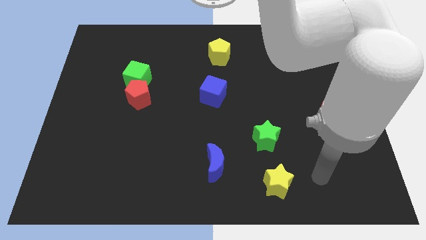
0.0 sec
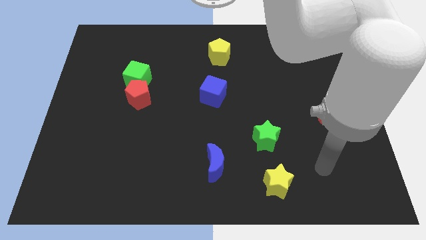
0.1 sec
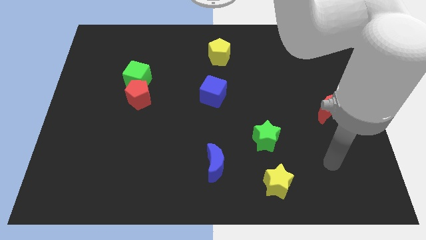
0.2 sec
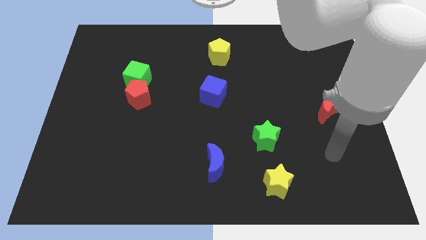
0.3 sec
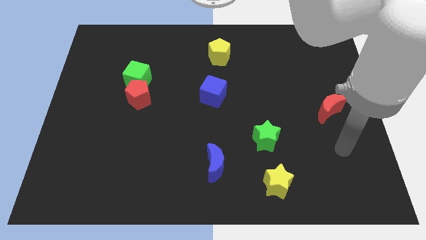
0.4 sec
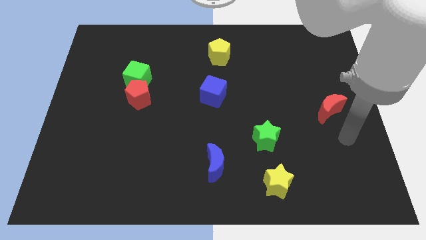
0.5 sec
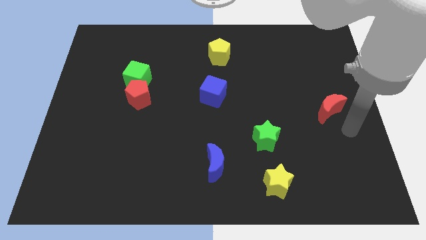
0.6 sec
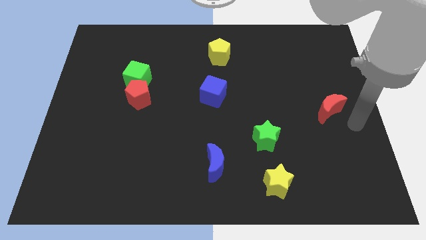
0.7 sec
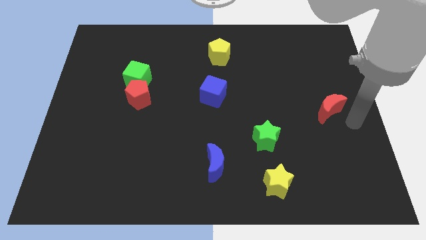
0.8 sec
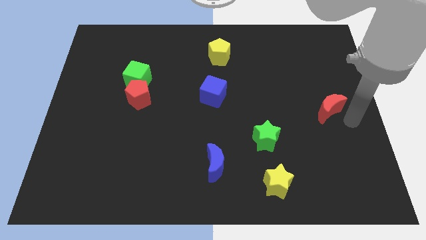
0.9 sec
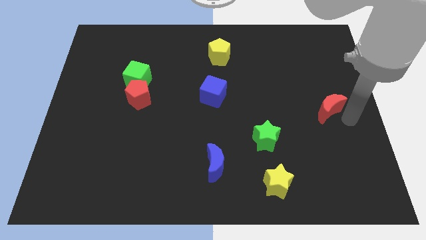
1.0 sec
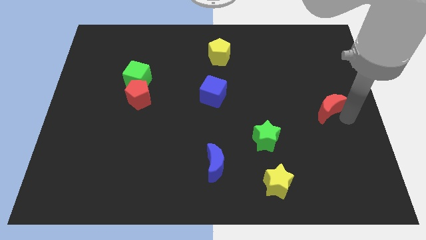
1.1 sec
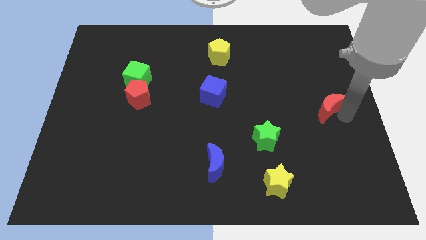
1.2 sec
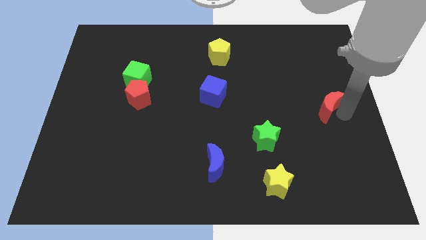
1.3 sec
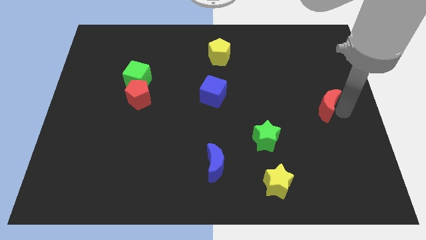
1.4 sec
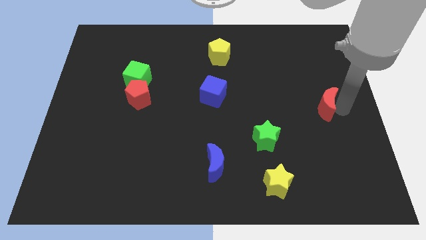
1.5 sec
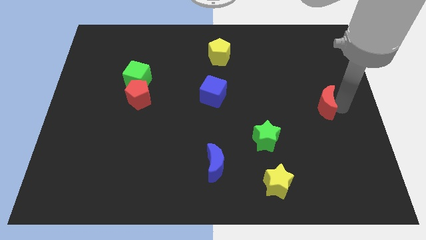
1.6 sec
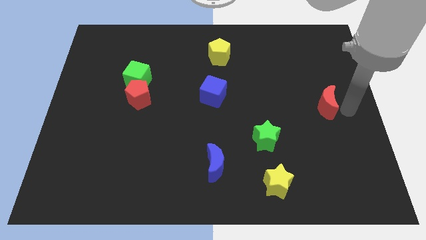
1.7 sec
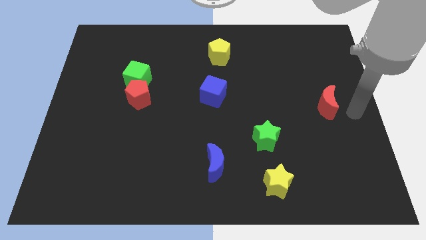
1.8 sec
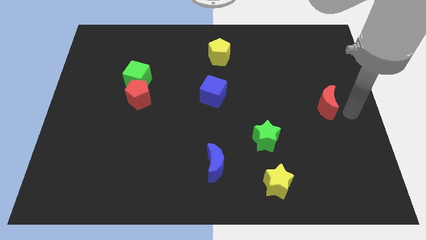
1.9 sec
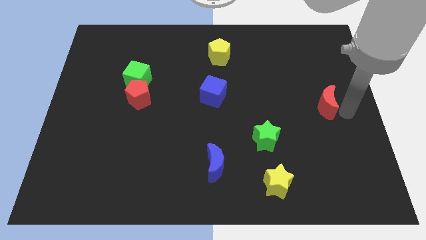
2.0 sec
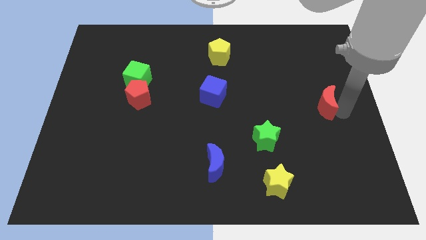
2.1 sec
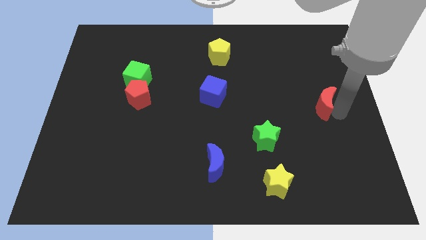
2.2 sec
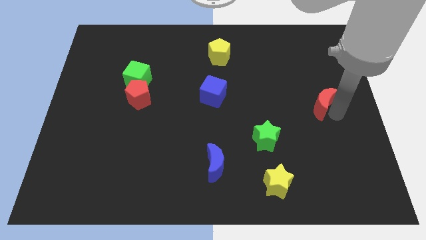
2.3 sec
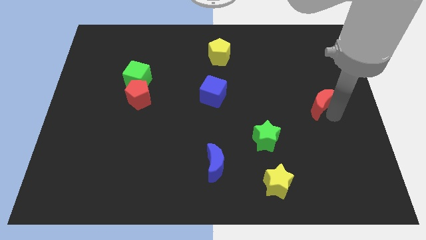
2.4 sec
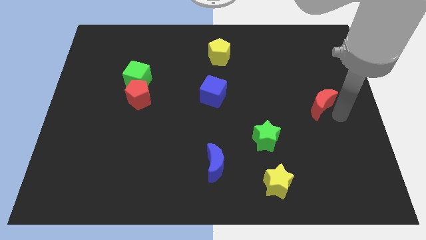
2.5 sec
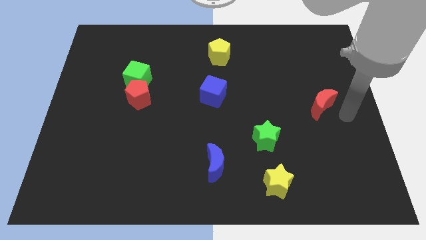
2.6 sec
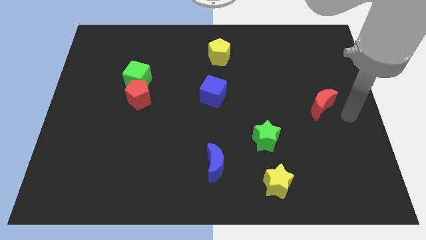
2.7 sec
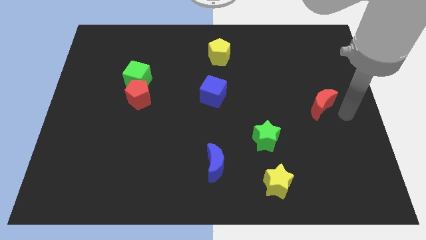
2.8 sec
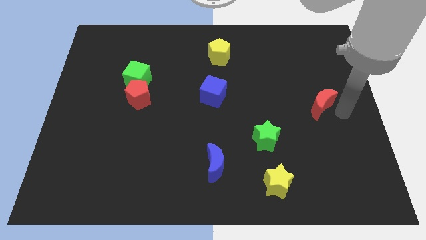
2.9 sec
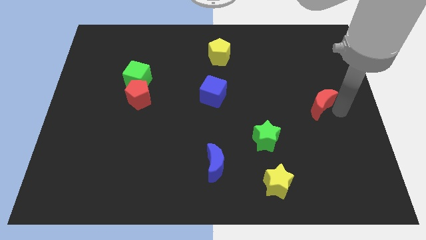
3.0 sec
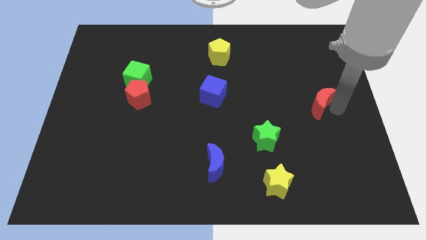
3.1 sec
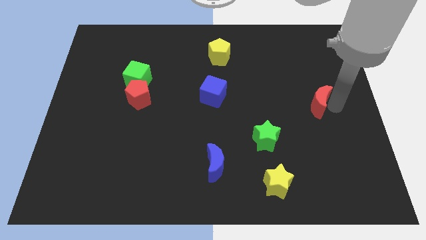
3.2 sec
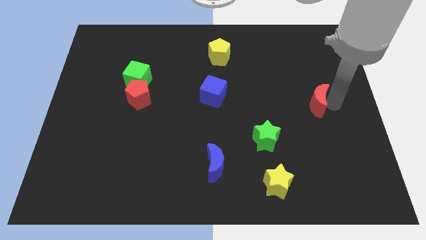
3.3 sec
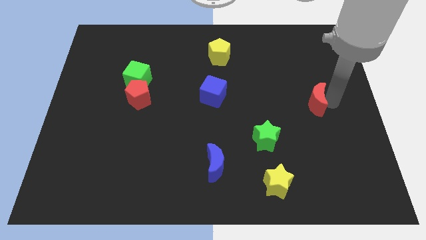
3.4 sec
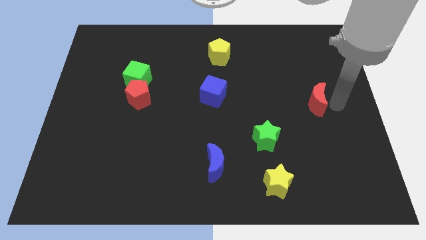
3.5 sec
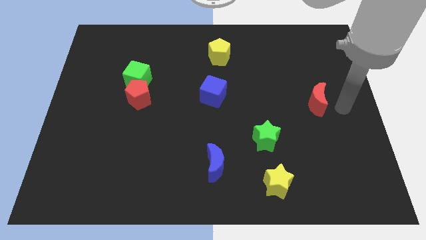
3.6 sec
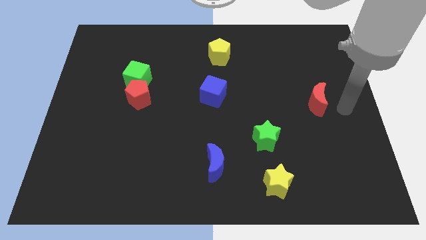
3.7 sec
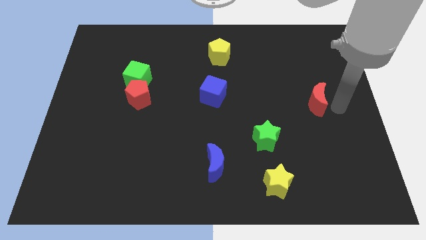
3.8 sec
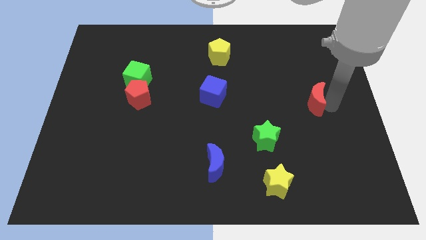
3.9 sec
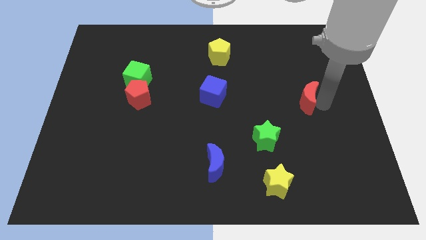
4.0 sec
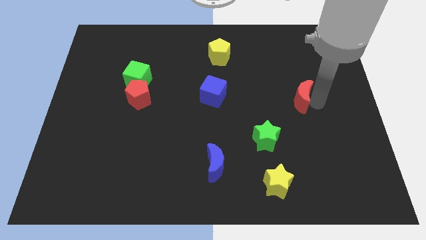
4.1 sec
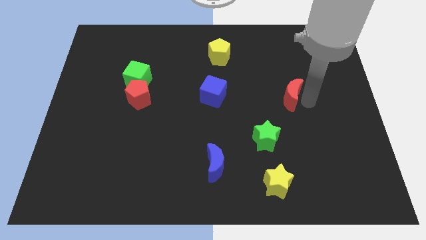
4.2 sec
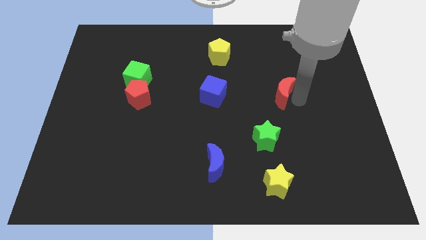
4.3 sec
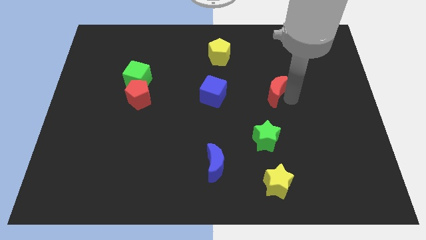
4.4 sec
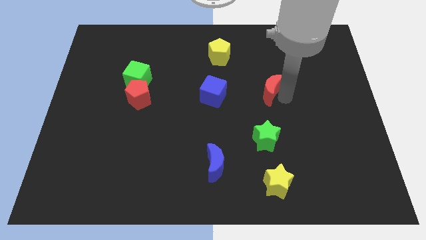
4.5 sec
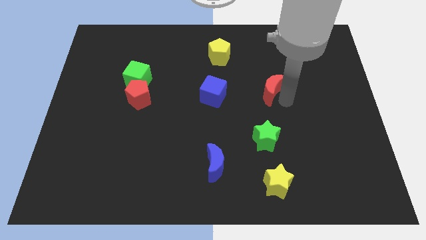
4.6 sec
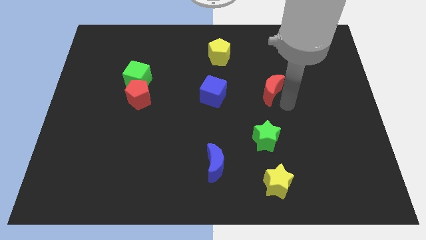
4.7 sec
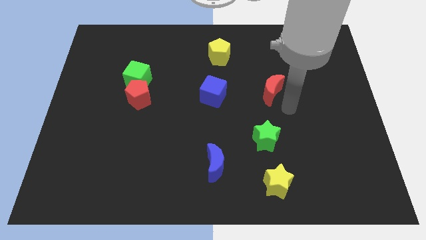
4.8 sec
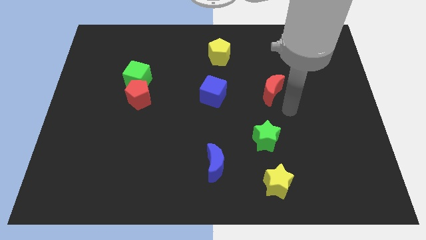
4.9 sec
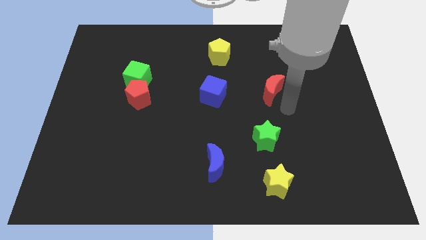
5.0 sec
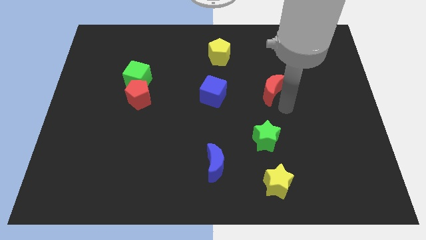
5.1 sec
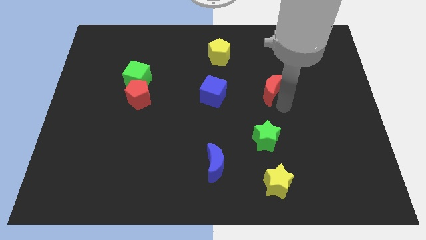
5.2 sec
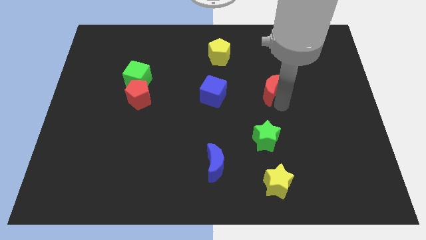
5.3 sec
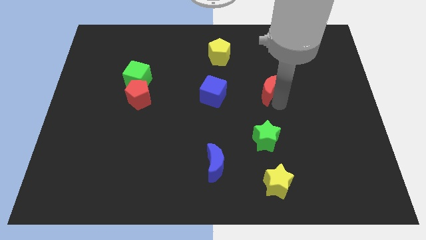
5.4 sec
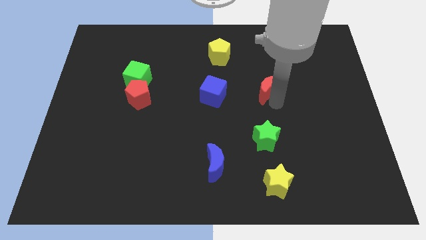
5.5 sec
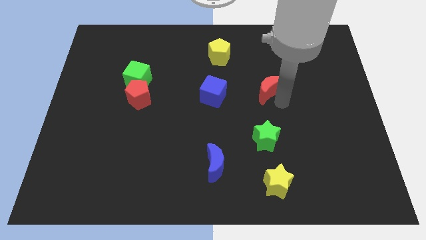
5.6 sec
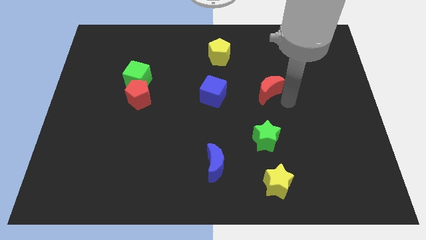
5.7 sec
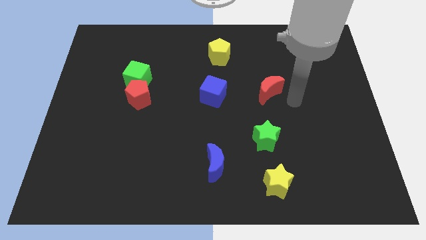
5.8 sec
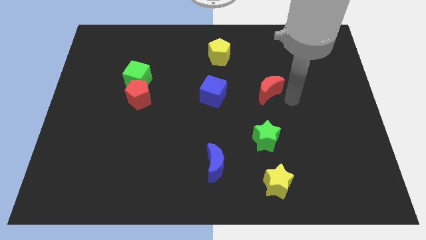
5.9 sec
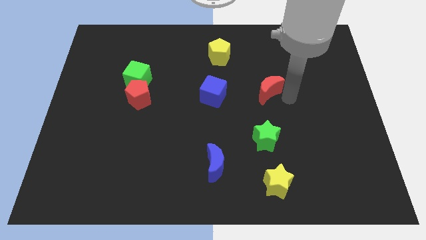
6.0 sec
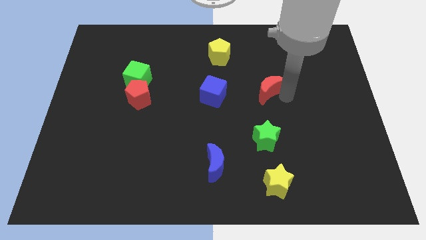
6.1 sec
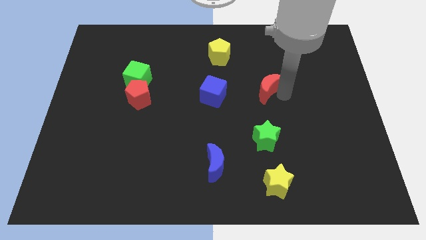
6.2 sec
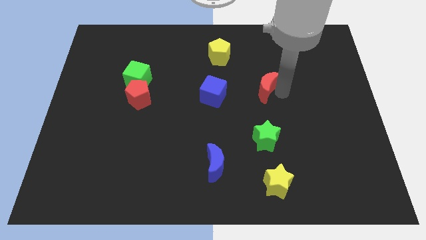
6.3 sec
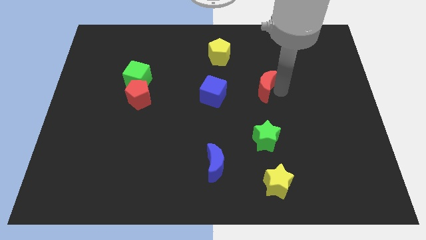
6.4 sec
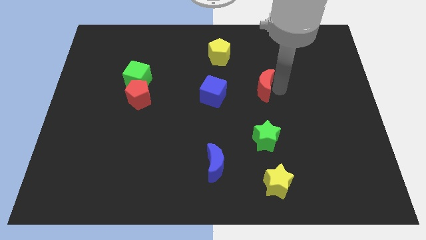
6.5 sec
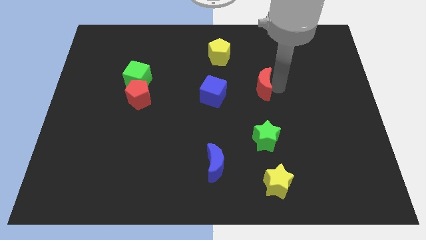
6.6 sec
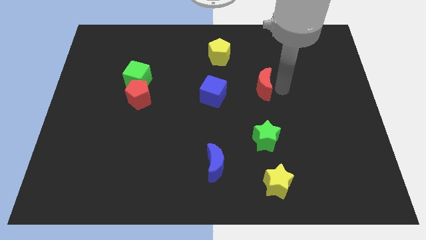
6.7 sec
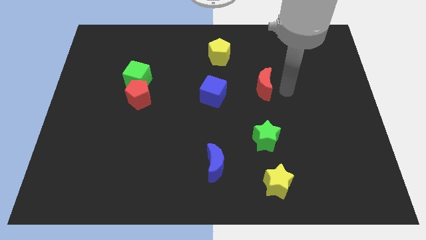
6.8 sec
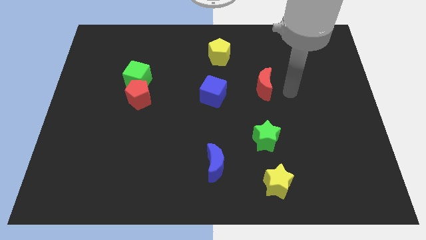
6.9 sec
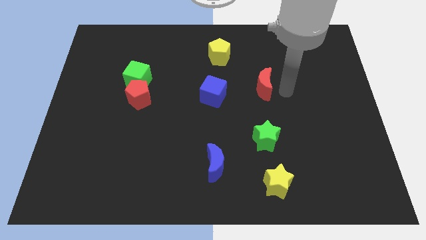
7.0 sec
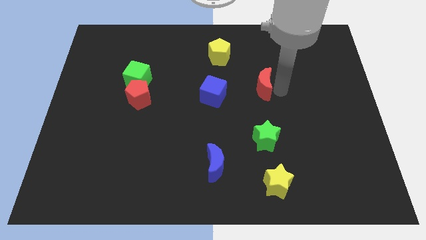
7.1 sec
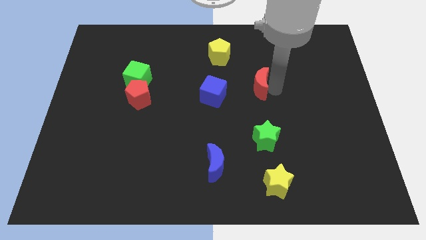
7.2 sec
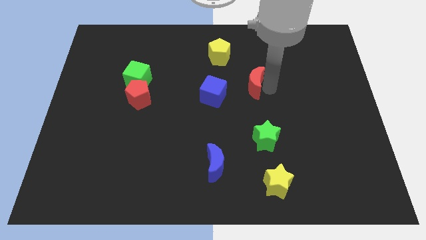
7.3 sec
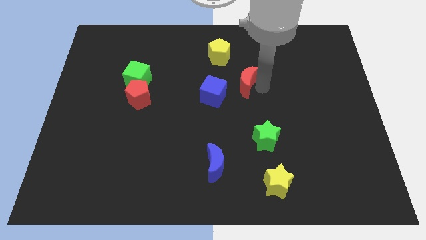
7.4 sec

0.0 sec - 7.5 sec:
put the red moon diagonally up and to the right of the blue cube
